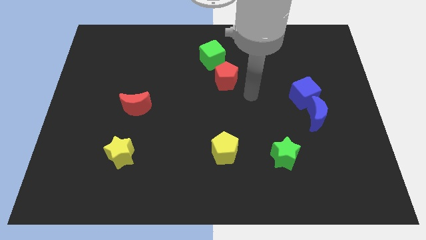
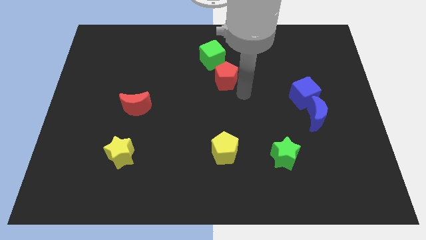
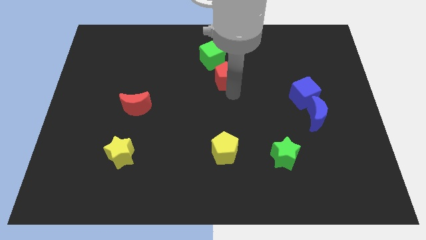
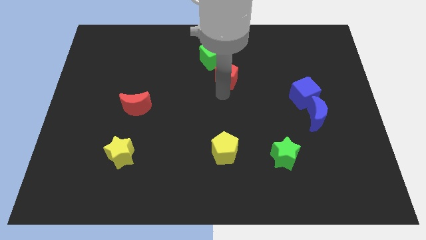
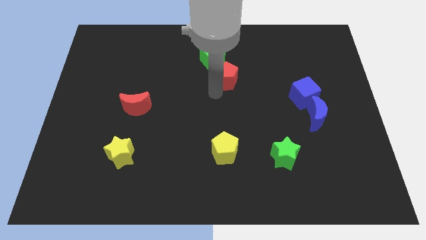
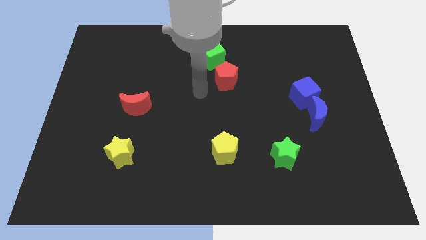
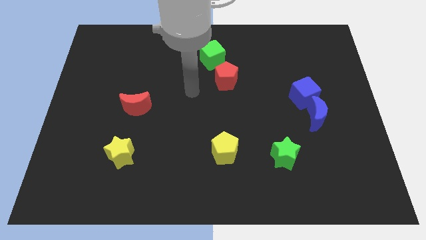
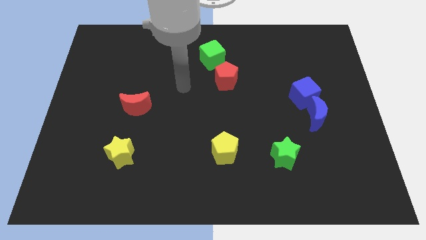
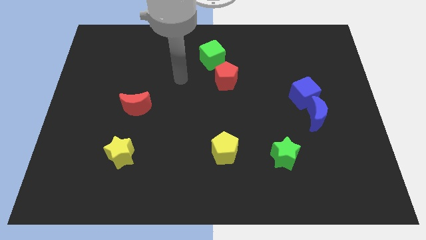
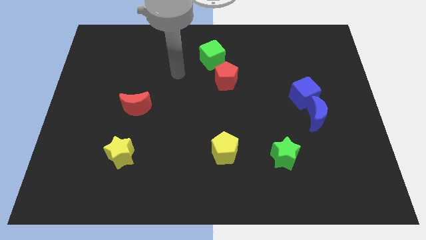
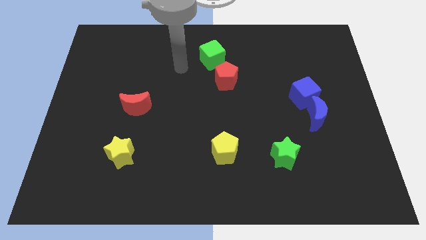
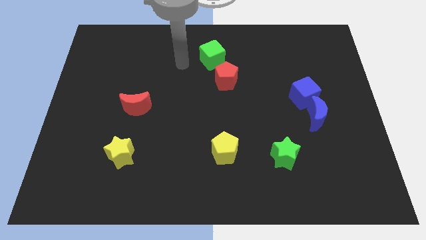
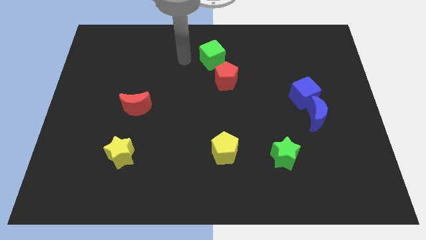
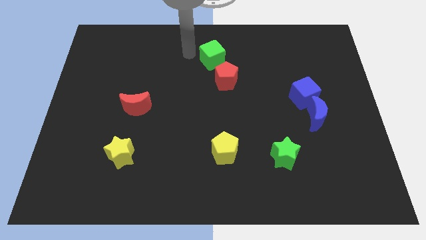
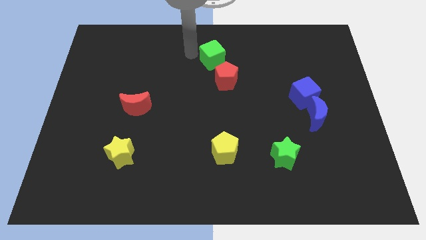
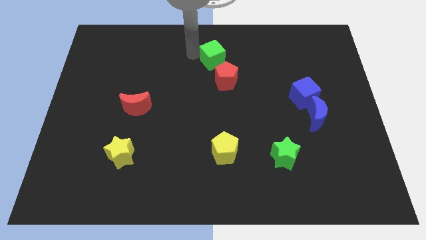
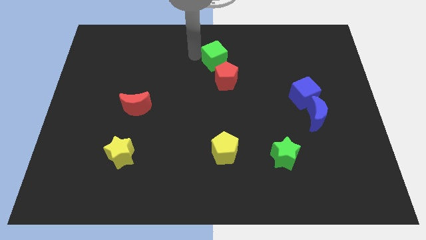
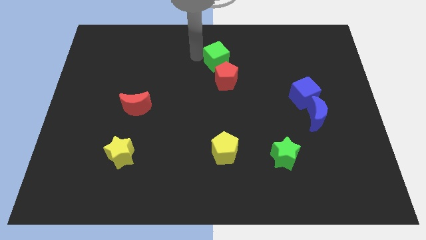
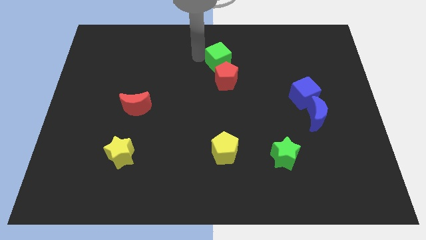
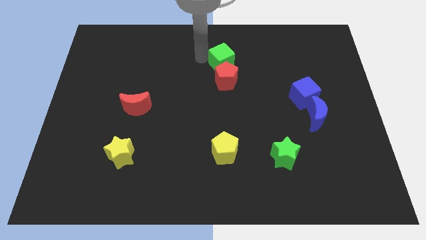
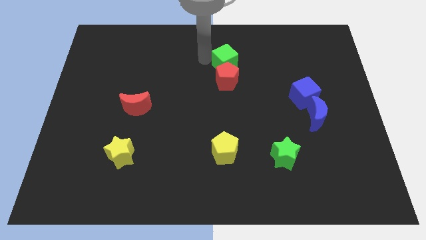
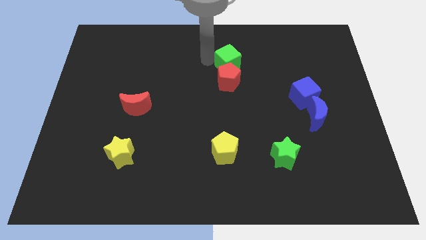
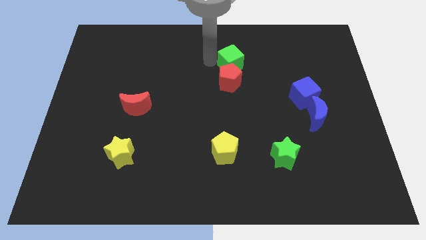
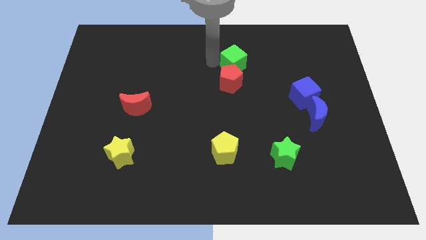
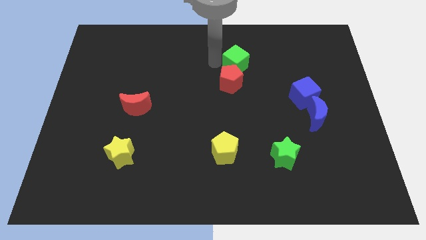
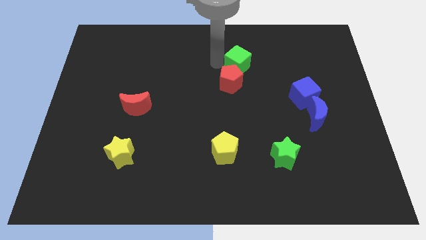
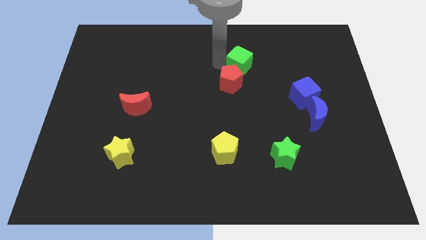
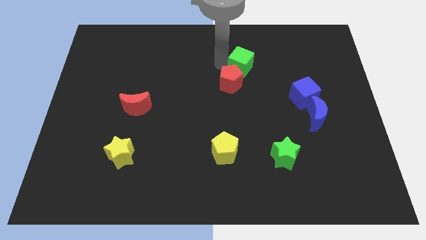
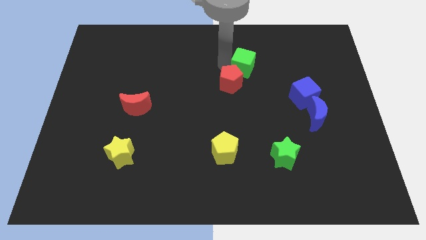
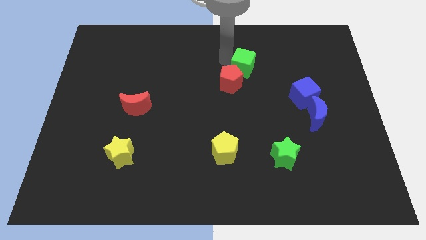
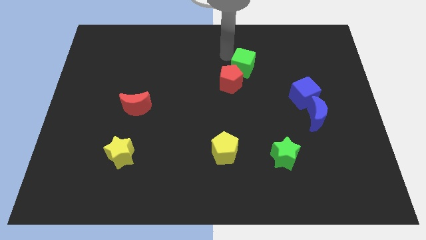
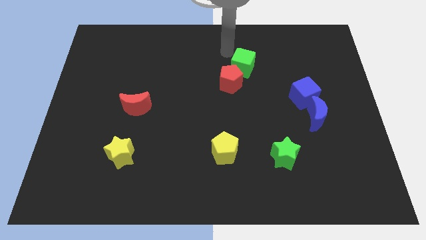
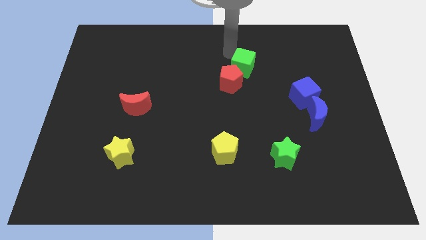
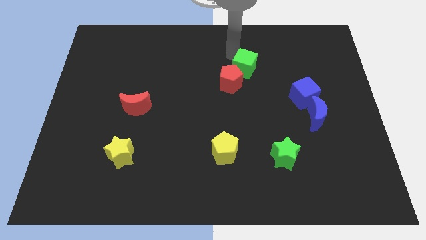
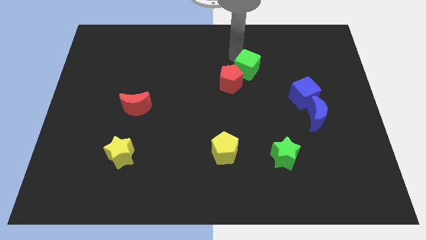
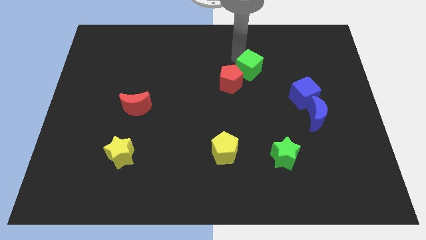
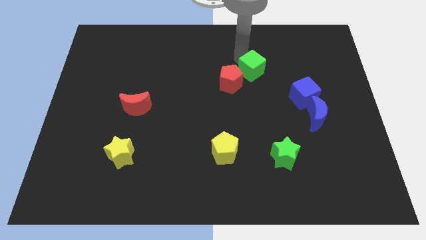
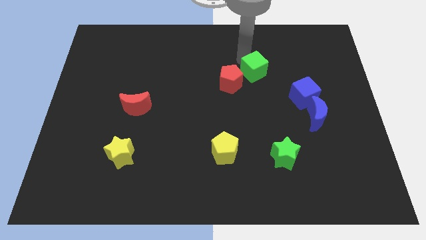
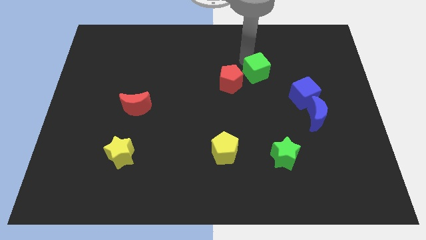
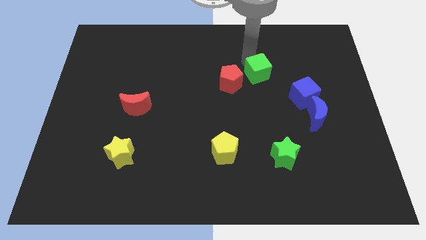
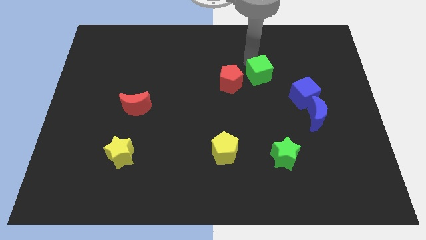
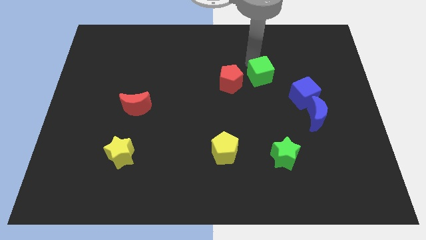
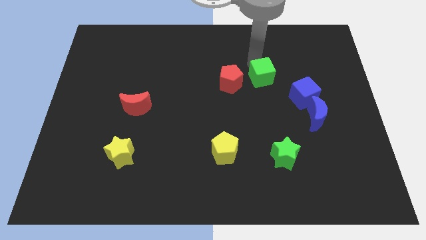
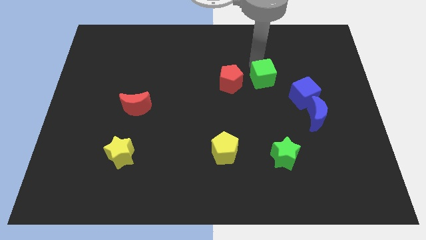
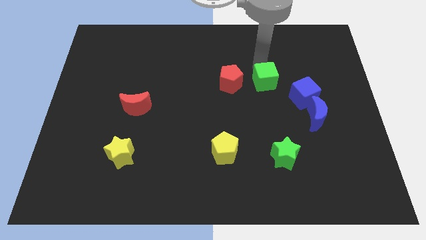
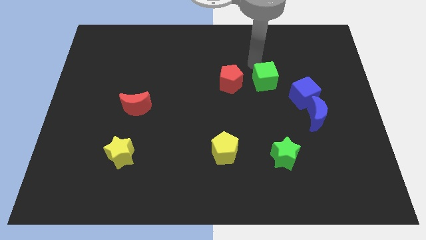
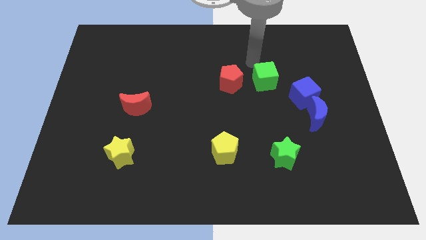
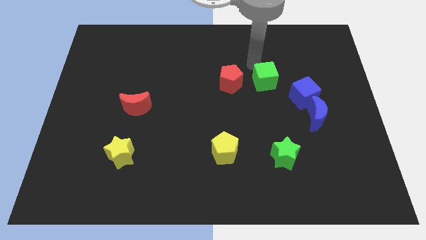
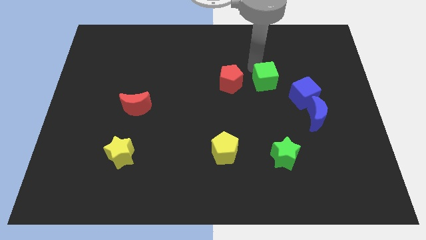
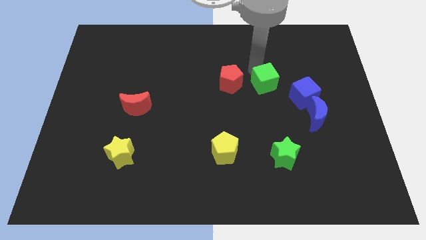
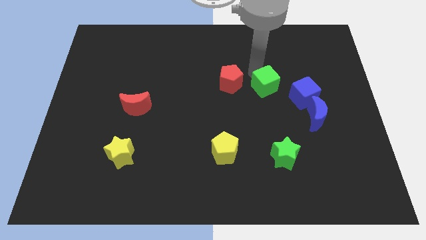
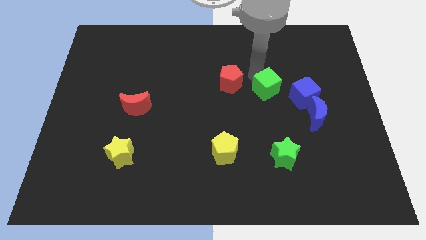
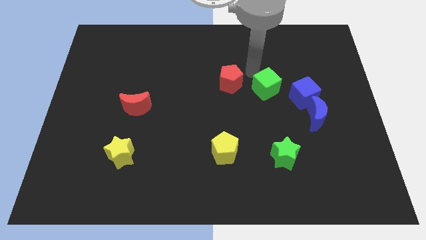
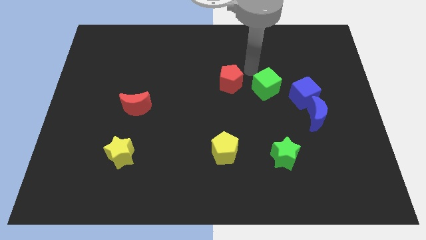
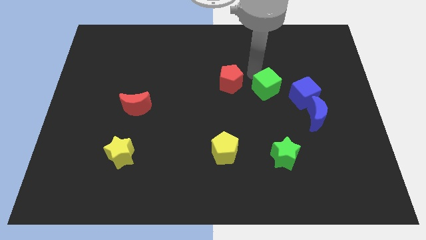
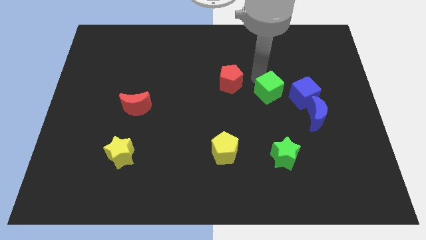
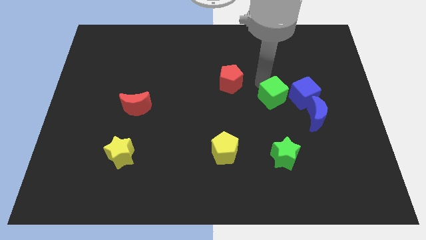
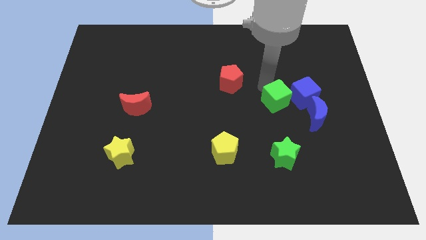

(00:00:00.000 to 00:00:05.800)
slide the green cube downwards and right diagonally

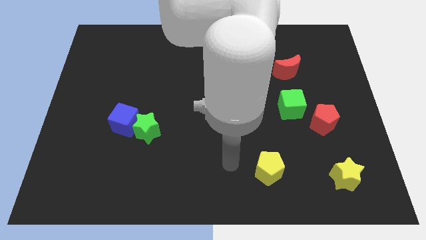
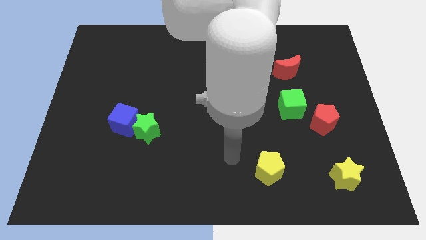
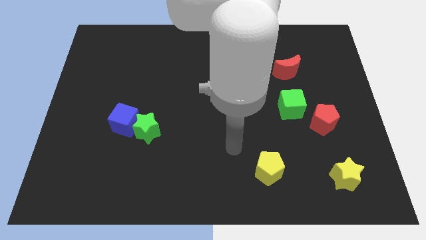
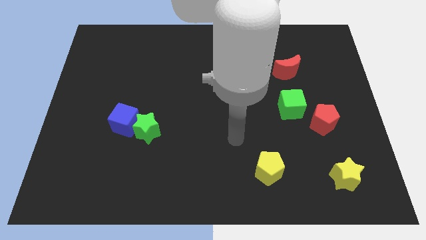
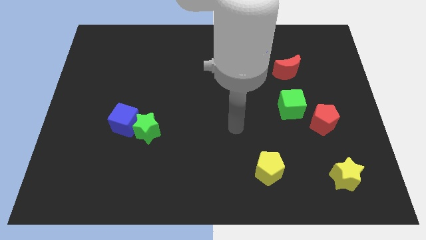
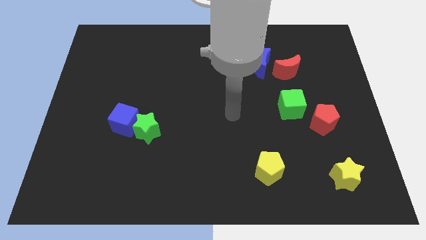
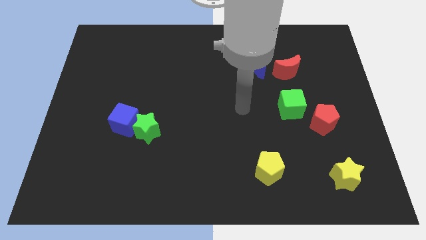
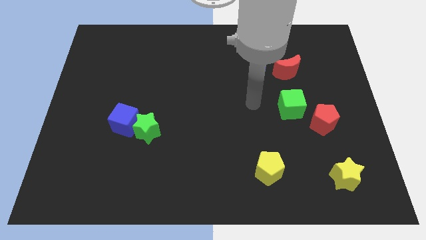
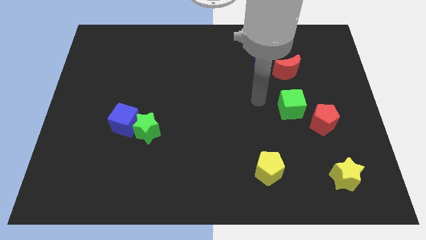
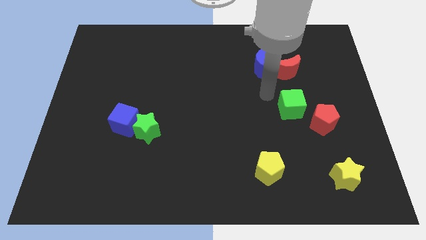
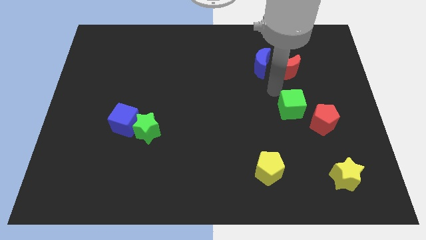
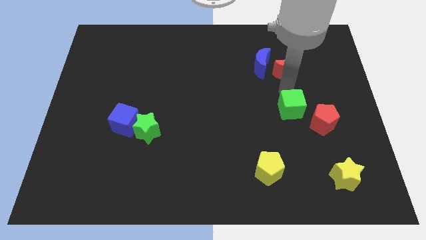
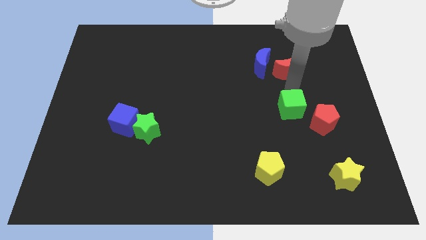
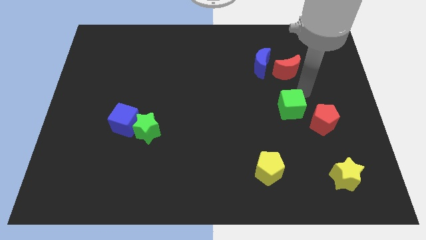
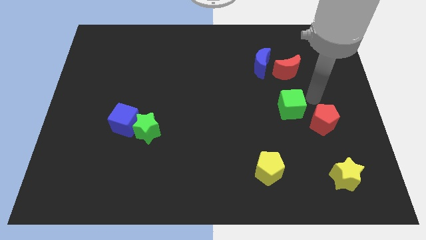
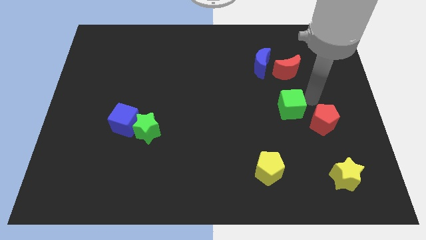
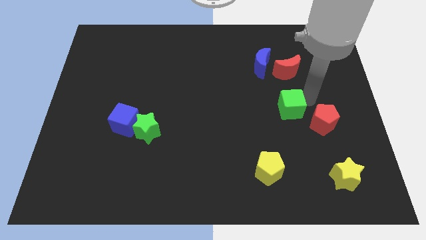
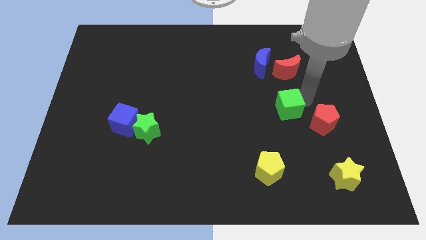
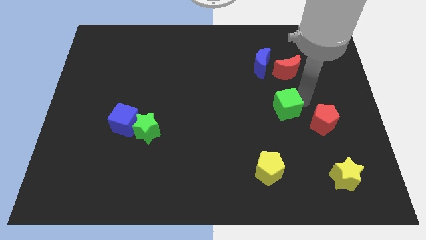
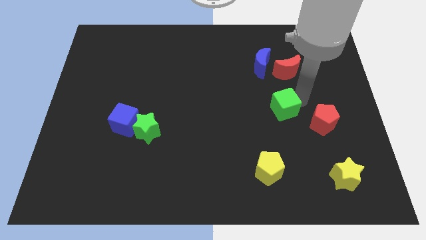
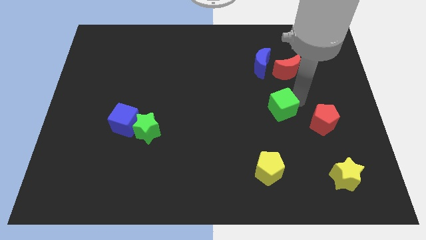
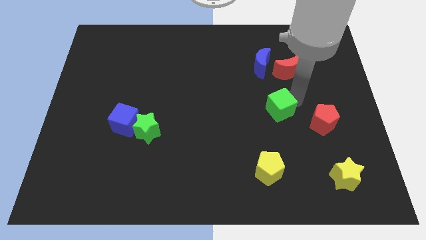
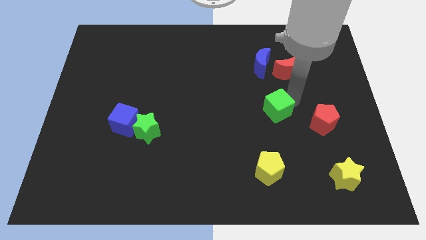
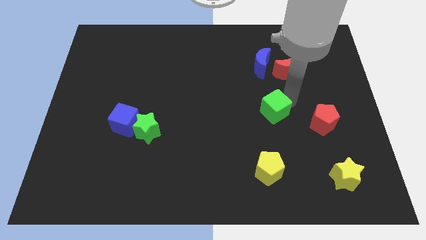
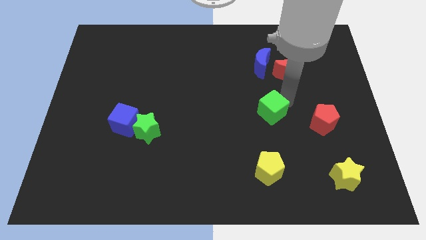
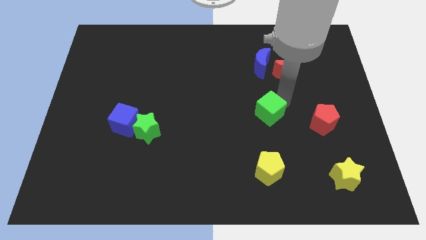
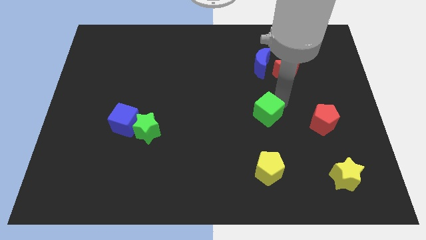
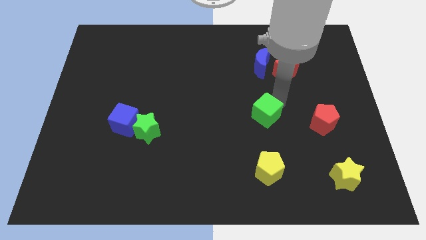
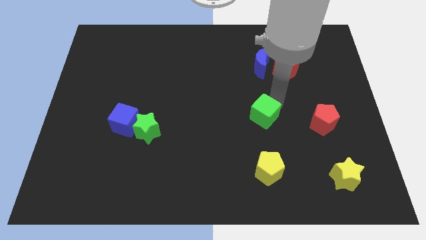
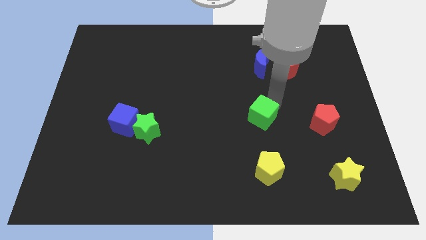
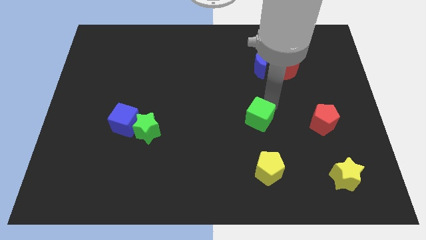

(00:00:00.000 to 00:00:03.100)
move the green cube down and to the left diagonally slightly
